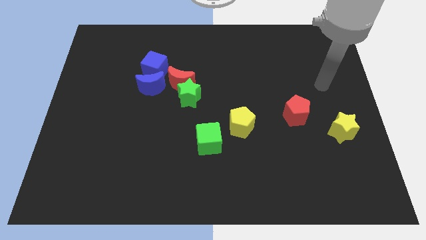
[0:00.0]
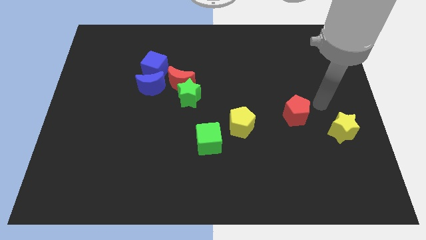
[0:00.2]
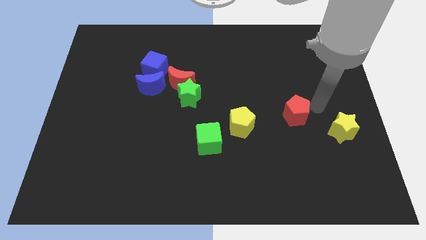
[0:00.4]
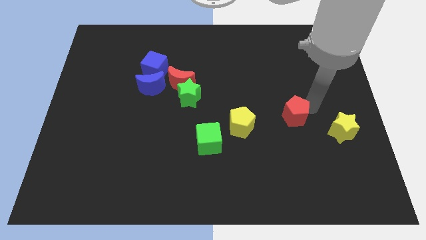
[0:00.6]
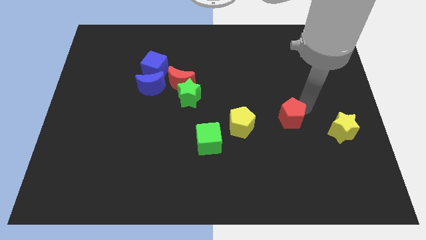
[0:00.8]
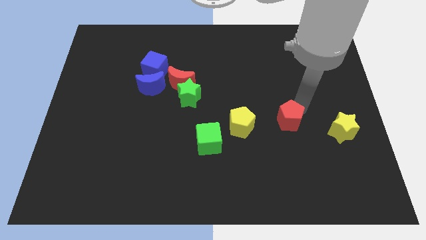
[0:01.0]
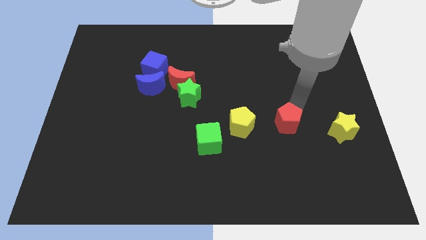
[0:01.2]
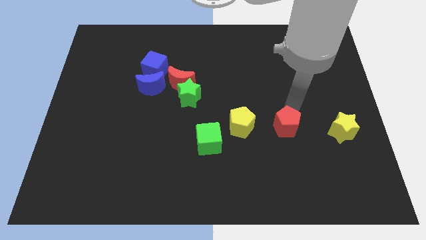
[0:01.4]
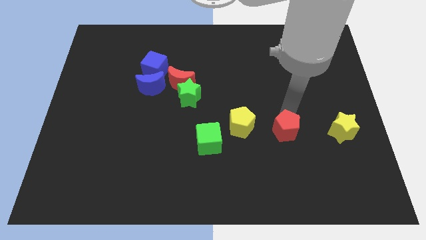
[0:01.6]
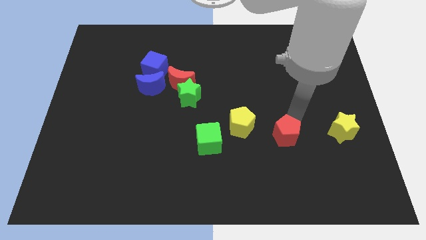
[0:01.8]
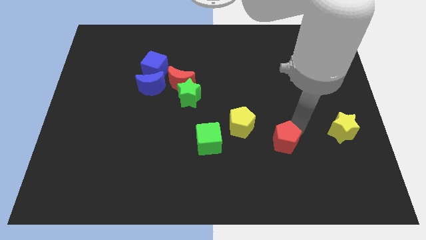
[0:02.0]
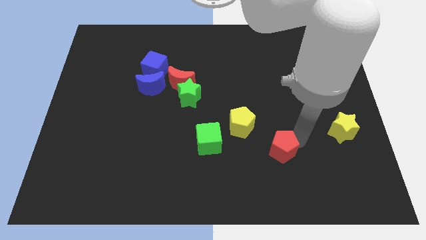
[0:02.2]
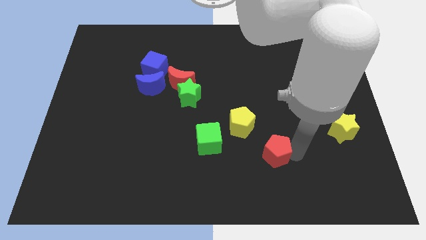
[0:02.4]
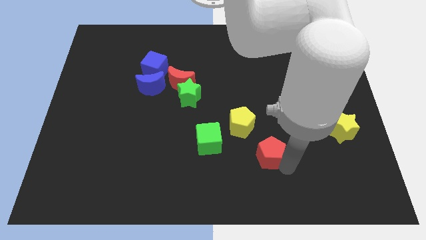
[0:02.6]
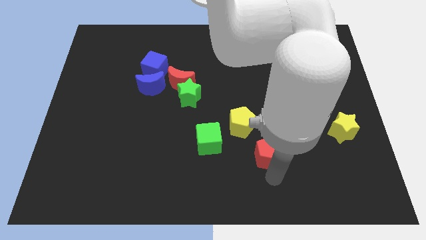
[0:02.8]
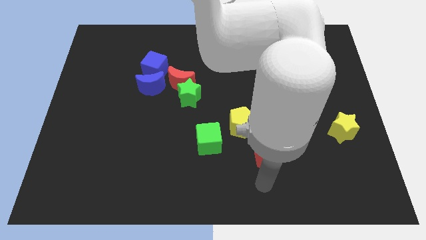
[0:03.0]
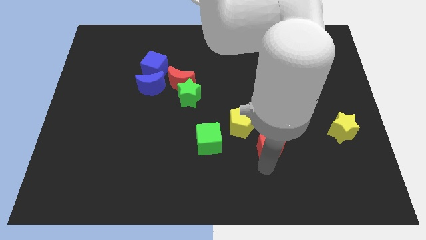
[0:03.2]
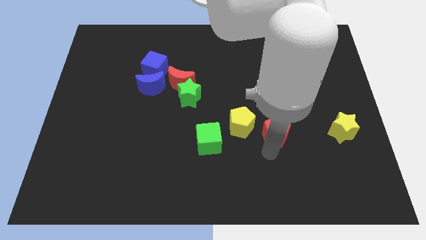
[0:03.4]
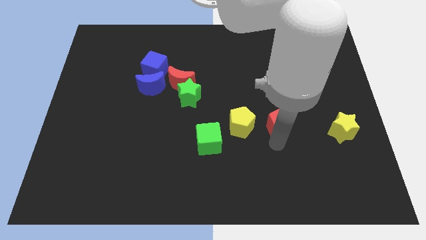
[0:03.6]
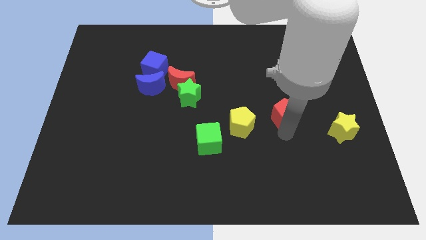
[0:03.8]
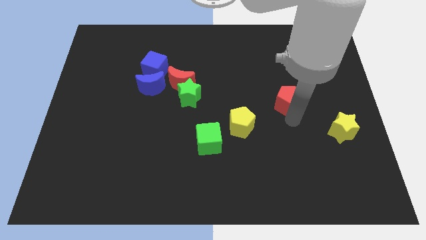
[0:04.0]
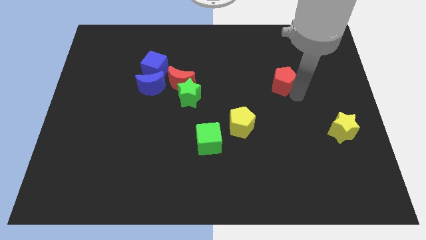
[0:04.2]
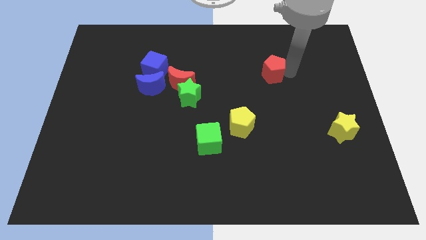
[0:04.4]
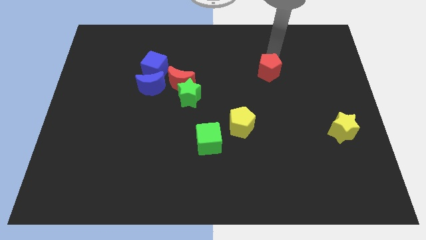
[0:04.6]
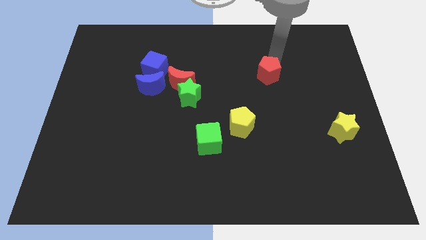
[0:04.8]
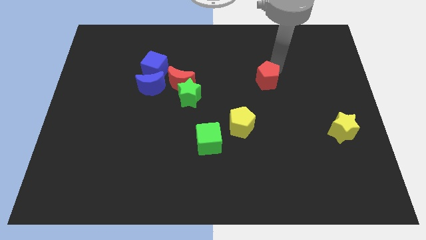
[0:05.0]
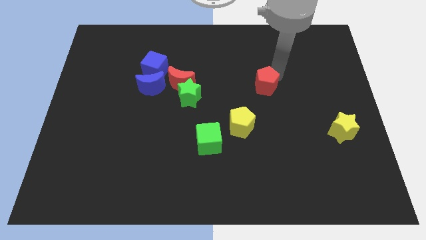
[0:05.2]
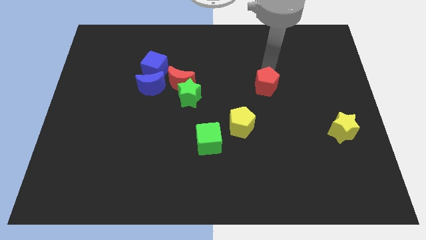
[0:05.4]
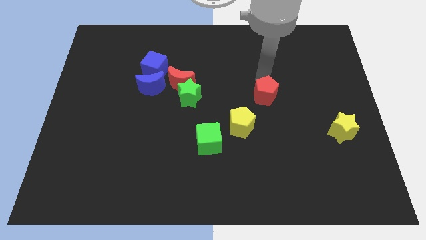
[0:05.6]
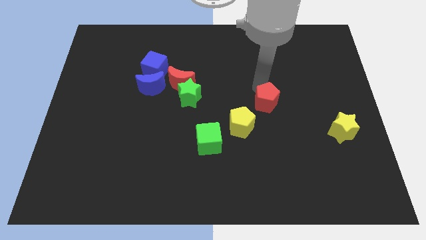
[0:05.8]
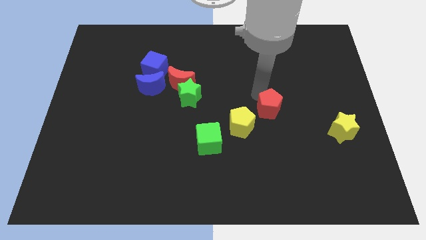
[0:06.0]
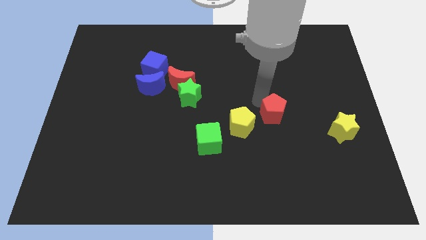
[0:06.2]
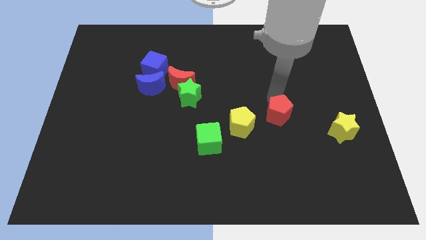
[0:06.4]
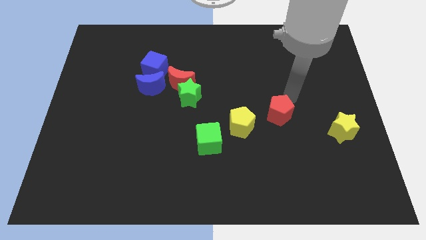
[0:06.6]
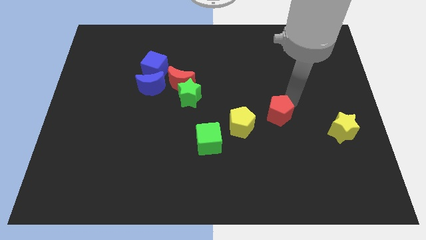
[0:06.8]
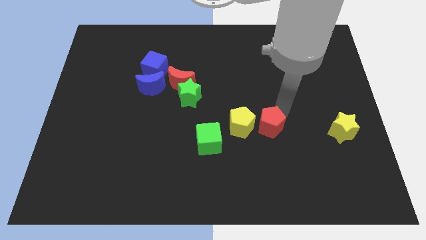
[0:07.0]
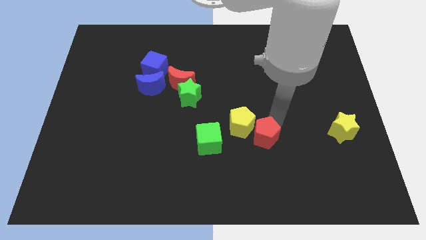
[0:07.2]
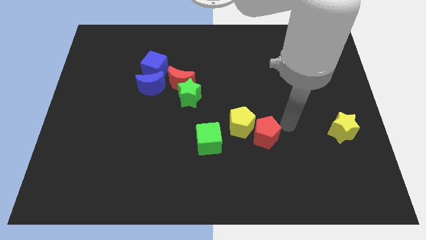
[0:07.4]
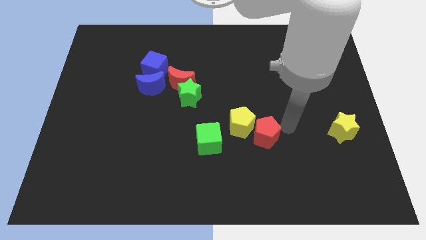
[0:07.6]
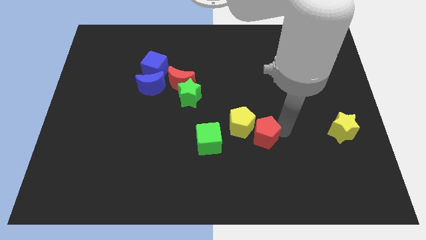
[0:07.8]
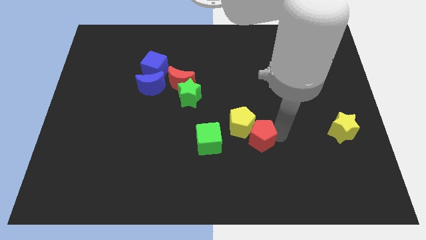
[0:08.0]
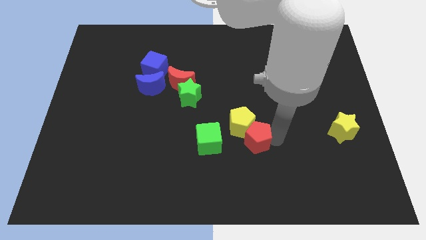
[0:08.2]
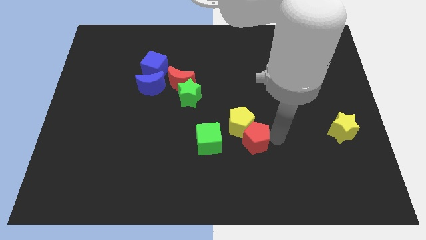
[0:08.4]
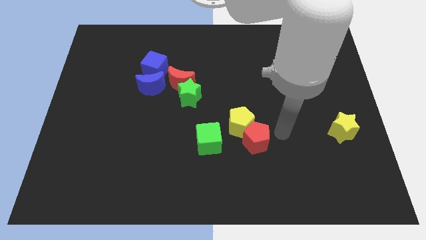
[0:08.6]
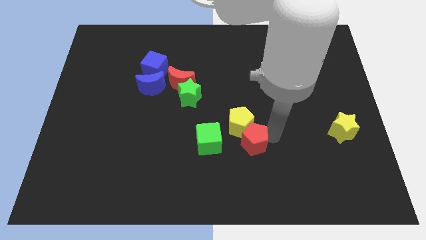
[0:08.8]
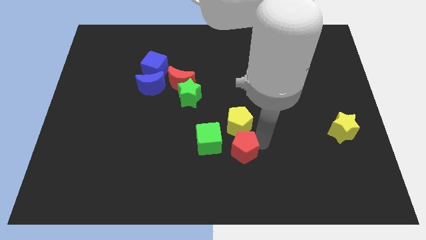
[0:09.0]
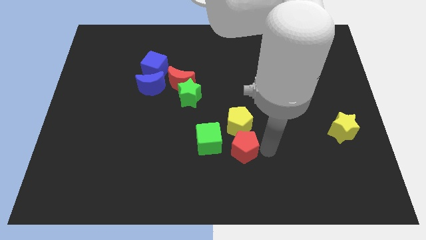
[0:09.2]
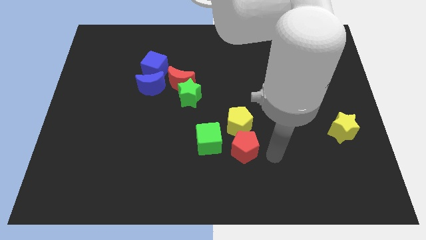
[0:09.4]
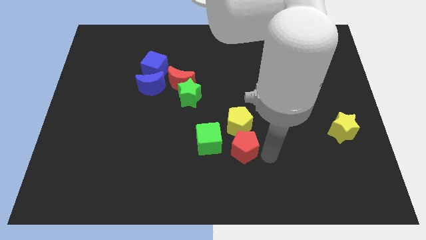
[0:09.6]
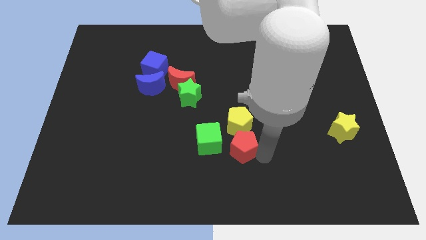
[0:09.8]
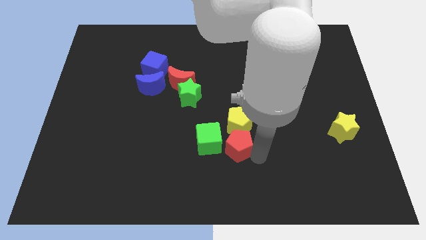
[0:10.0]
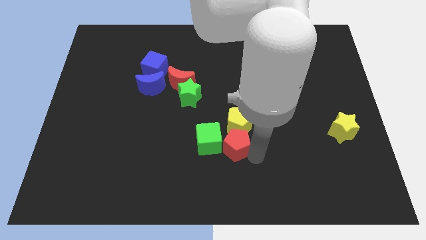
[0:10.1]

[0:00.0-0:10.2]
move the red pentagon to the green cube

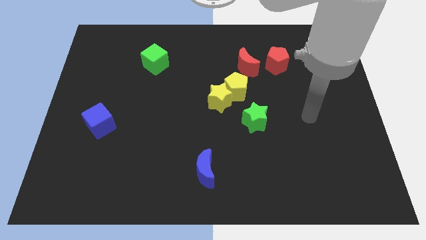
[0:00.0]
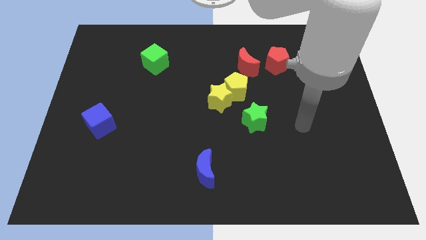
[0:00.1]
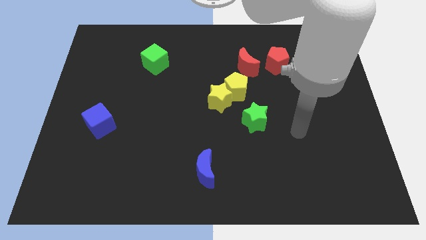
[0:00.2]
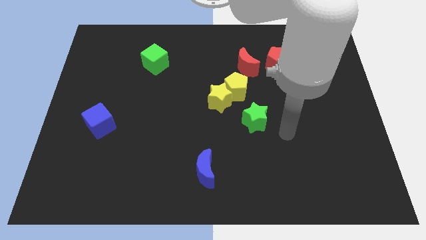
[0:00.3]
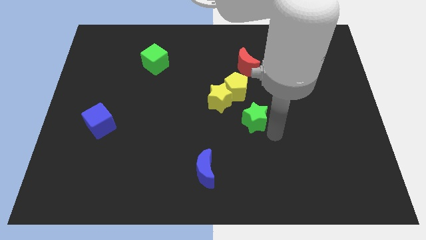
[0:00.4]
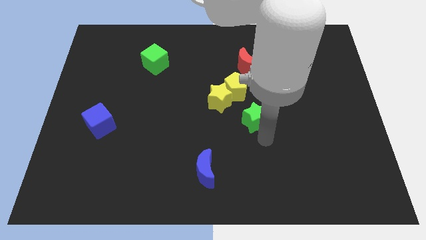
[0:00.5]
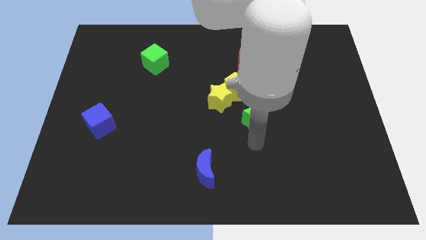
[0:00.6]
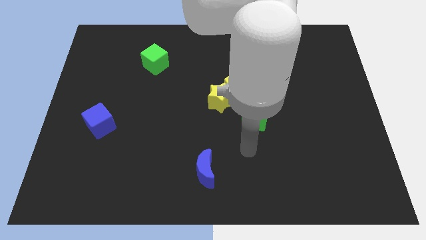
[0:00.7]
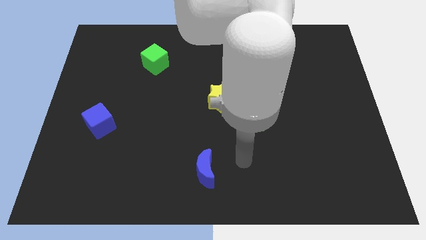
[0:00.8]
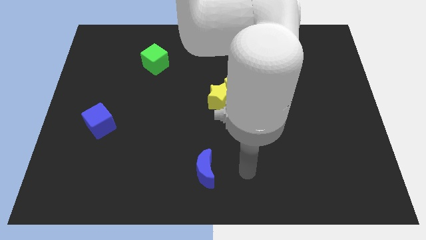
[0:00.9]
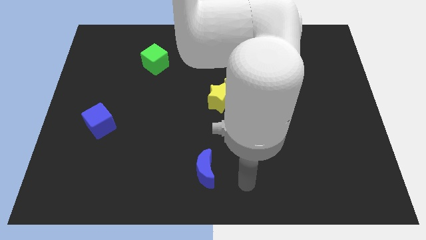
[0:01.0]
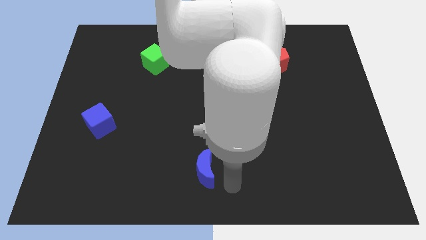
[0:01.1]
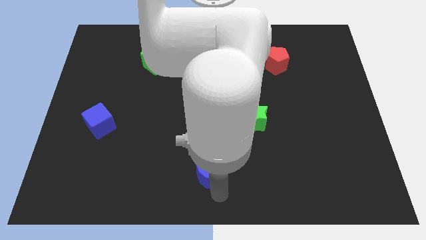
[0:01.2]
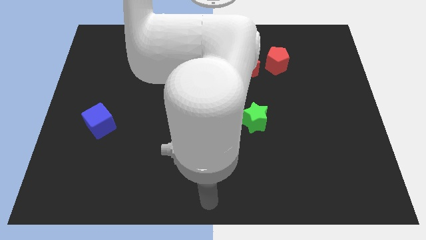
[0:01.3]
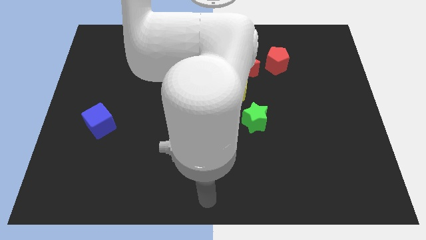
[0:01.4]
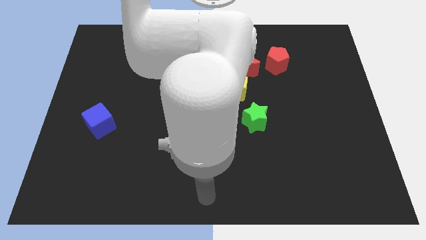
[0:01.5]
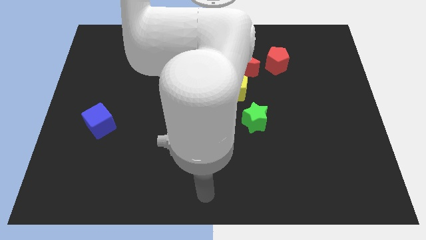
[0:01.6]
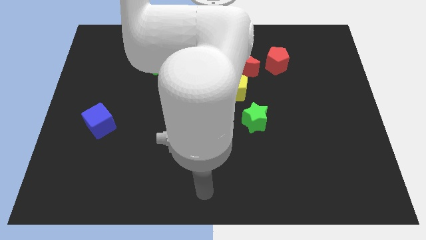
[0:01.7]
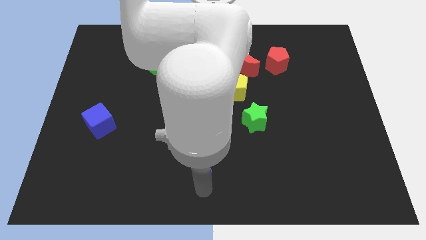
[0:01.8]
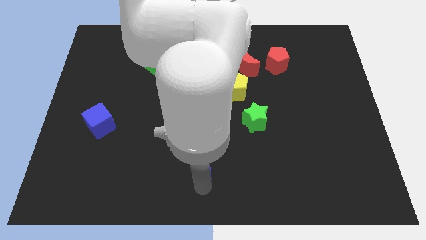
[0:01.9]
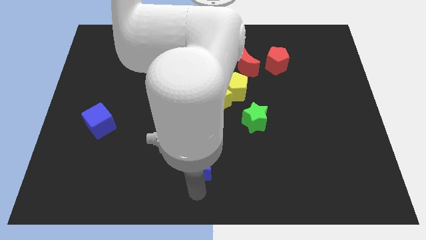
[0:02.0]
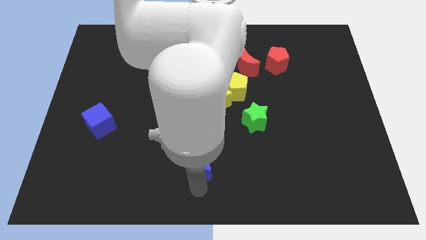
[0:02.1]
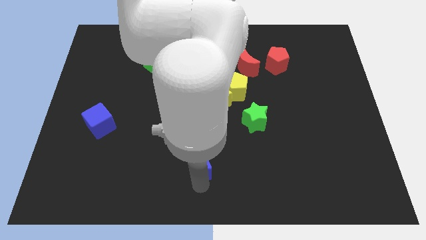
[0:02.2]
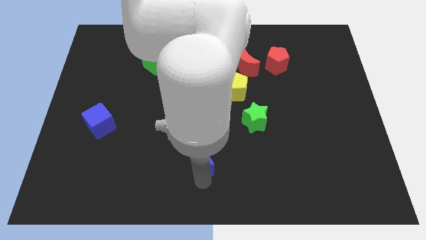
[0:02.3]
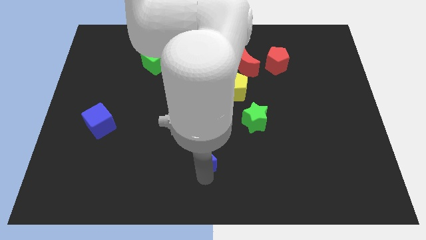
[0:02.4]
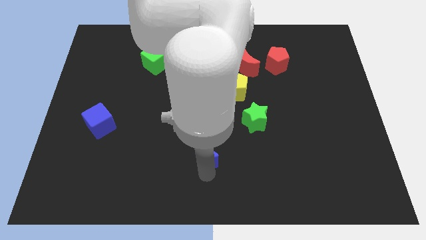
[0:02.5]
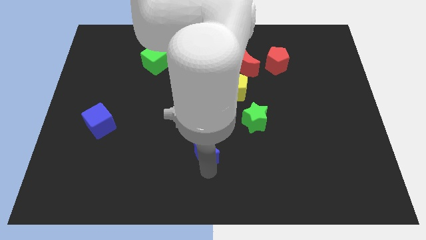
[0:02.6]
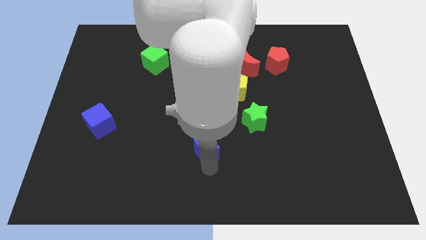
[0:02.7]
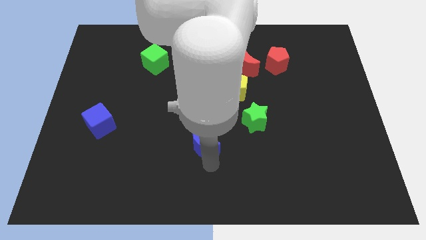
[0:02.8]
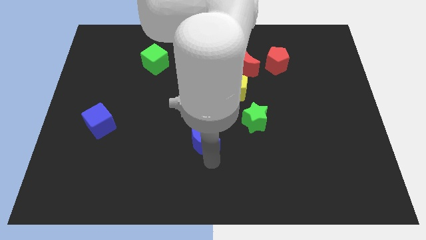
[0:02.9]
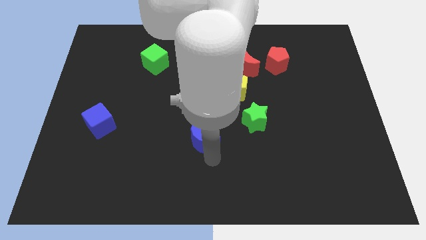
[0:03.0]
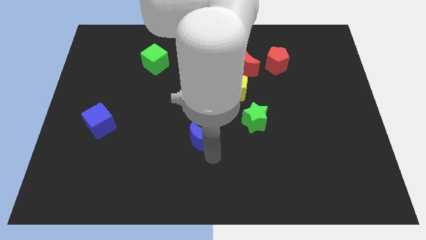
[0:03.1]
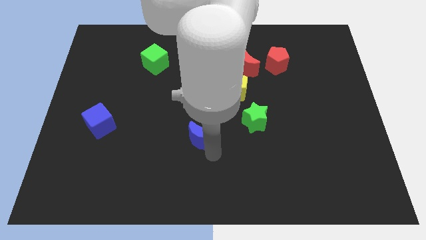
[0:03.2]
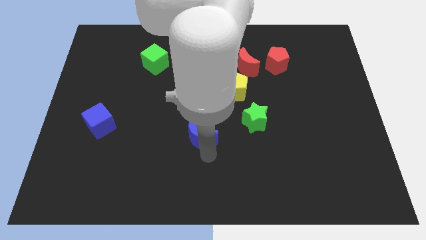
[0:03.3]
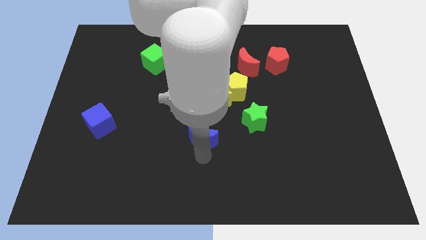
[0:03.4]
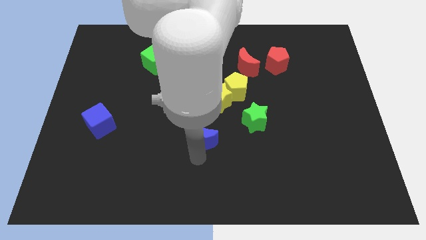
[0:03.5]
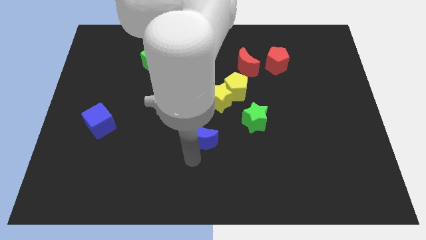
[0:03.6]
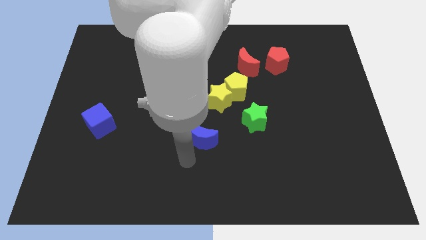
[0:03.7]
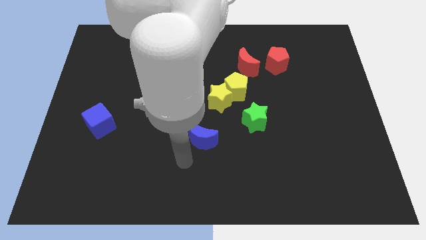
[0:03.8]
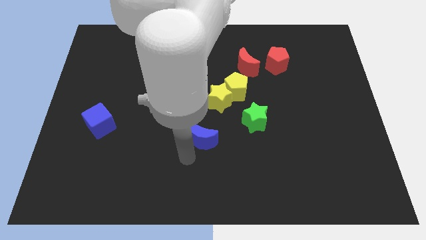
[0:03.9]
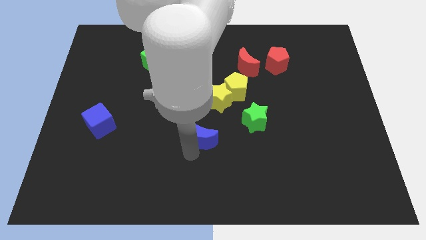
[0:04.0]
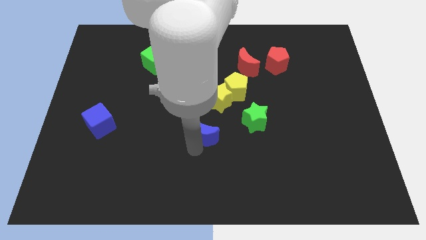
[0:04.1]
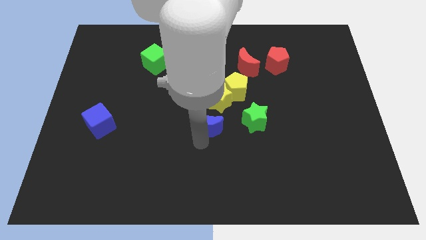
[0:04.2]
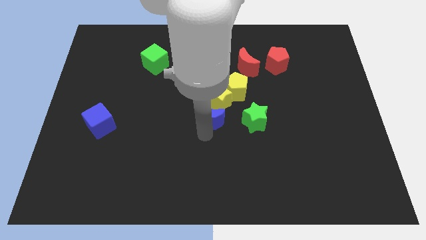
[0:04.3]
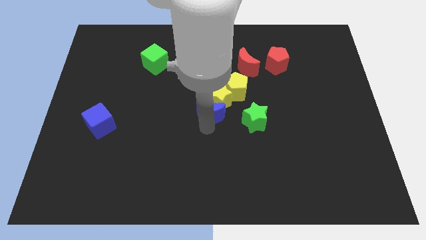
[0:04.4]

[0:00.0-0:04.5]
move the blue moon close to the yellow star
